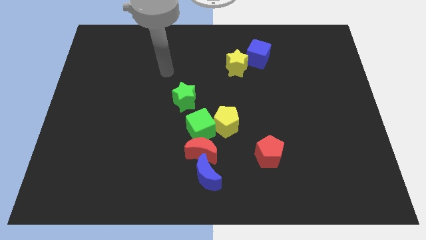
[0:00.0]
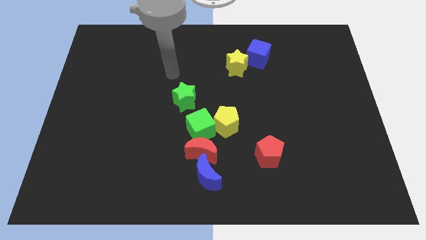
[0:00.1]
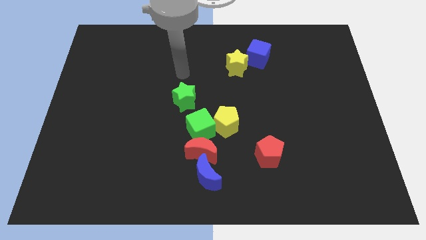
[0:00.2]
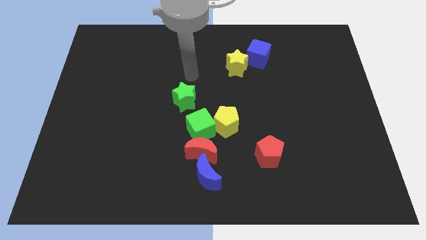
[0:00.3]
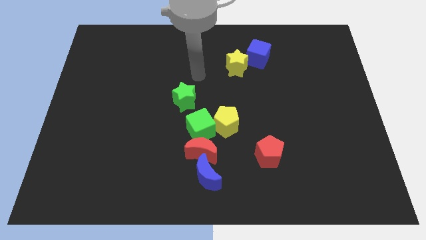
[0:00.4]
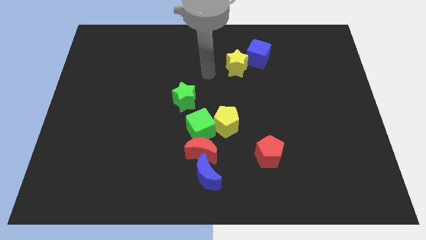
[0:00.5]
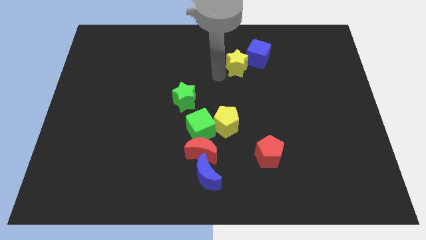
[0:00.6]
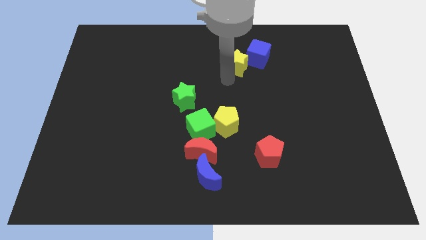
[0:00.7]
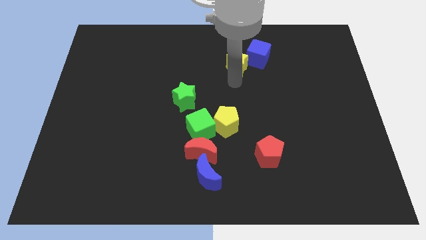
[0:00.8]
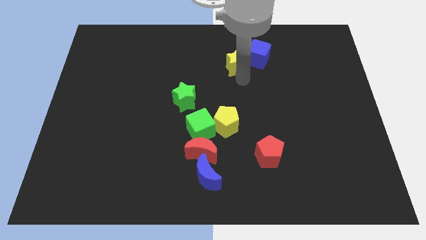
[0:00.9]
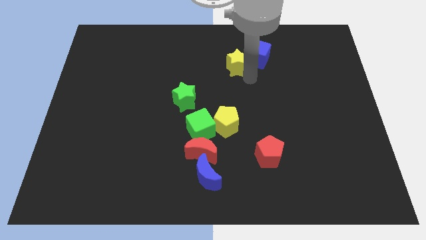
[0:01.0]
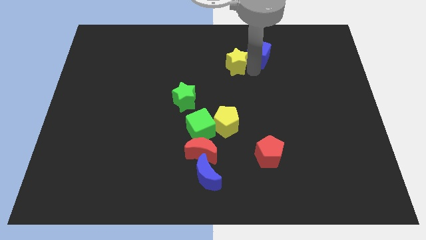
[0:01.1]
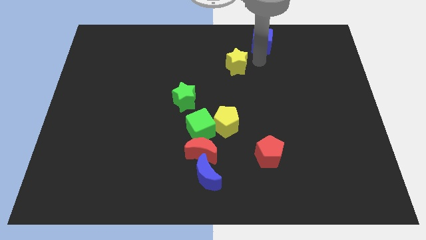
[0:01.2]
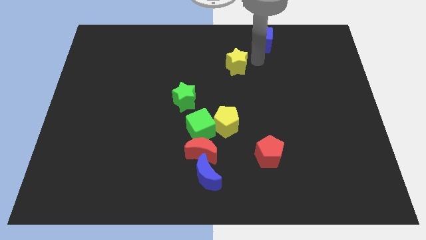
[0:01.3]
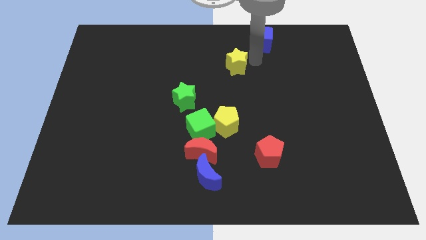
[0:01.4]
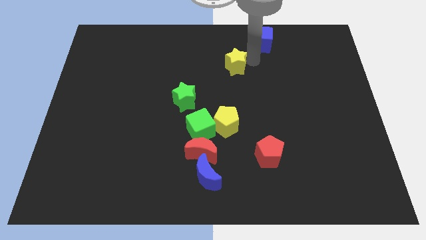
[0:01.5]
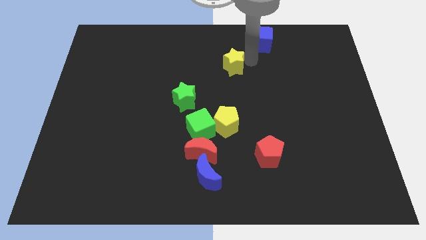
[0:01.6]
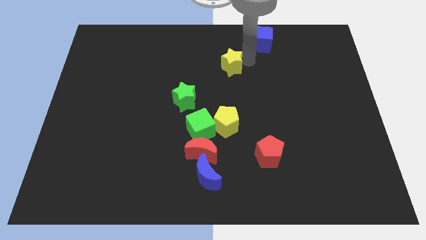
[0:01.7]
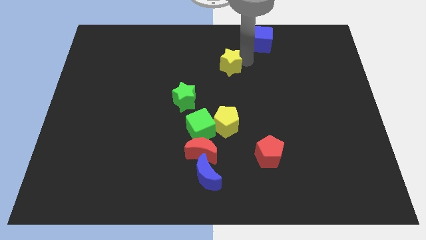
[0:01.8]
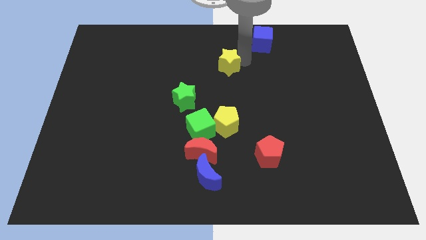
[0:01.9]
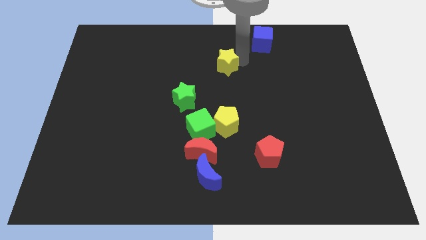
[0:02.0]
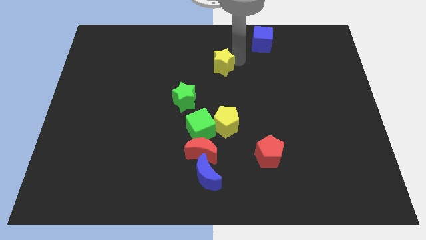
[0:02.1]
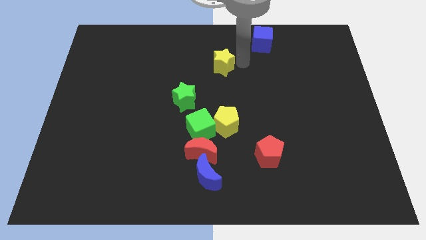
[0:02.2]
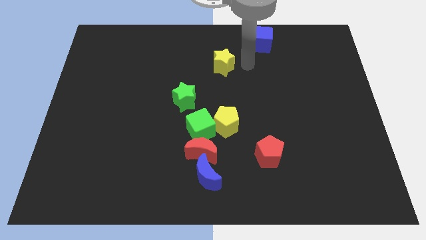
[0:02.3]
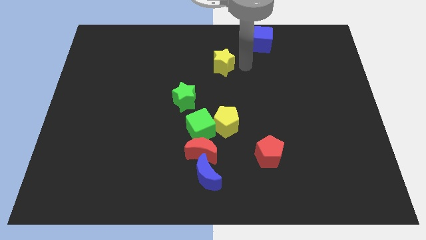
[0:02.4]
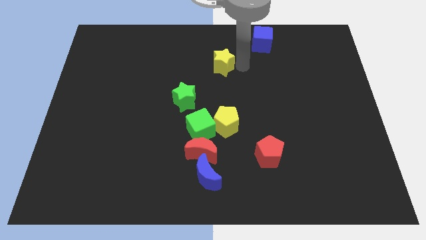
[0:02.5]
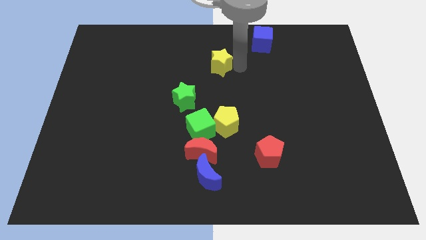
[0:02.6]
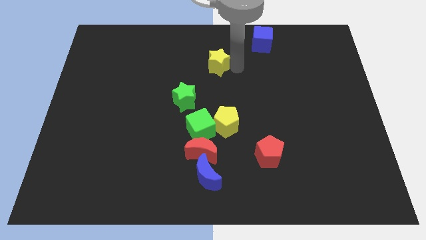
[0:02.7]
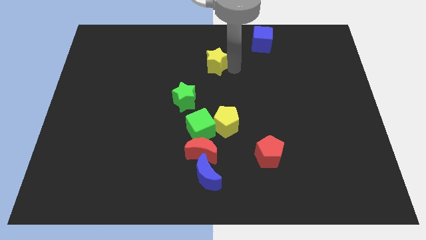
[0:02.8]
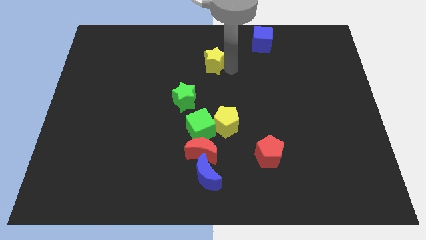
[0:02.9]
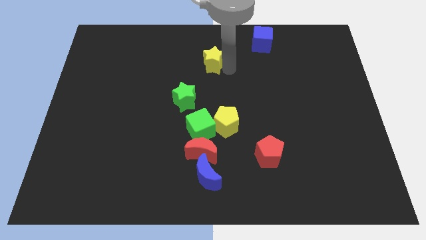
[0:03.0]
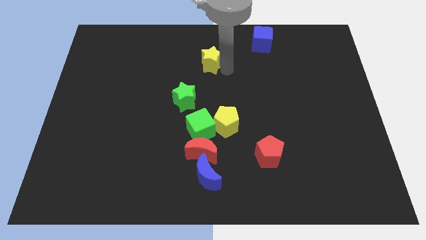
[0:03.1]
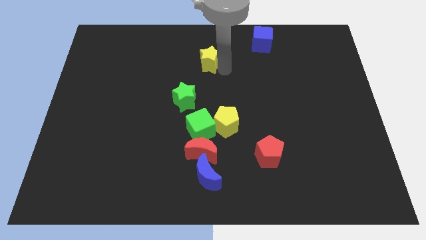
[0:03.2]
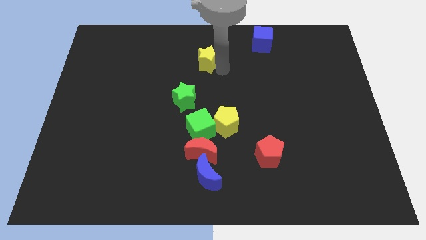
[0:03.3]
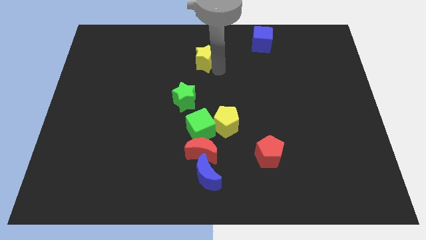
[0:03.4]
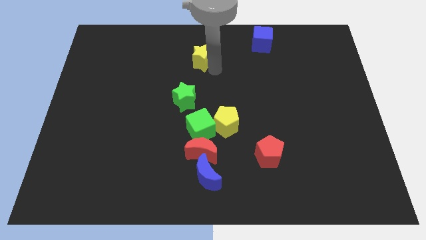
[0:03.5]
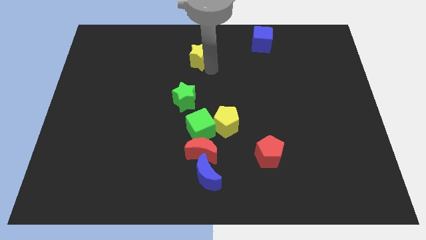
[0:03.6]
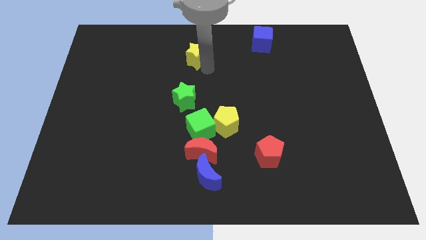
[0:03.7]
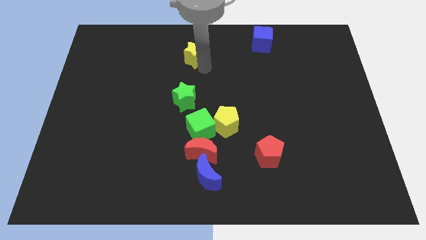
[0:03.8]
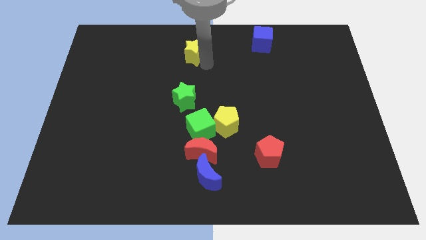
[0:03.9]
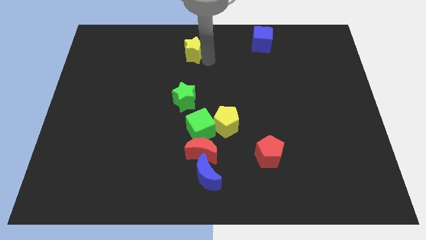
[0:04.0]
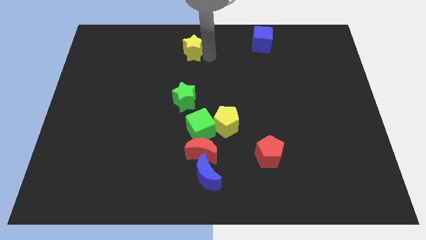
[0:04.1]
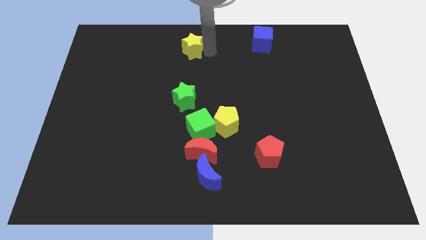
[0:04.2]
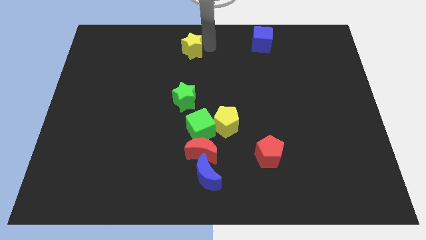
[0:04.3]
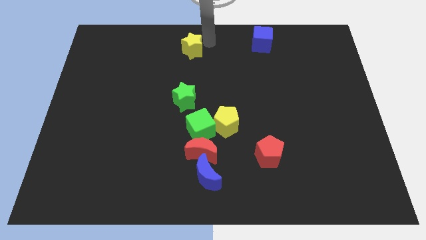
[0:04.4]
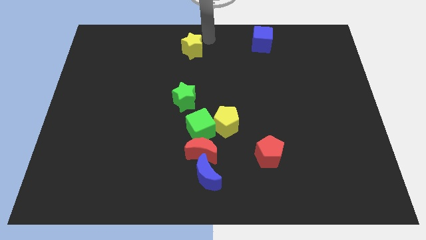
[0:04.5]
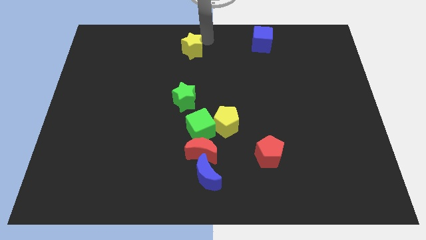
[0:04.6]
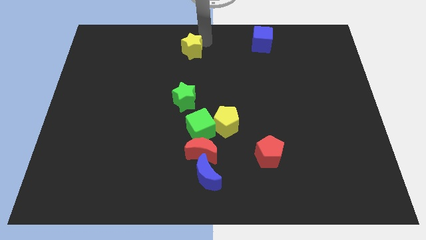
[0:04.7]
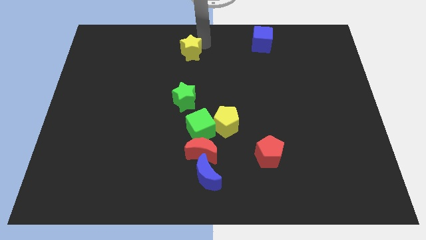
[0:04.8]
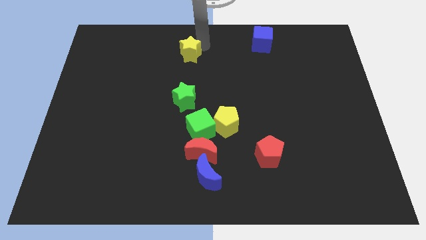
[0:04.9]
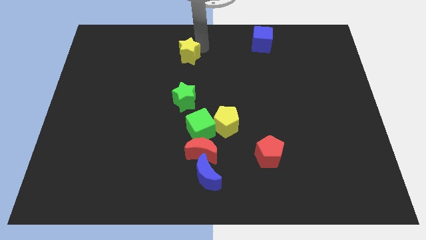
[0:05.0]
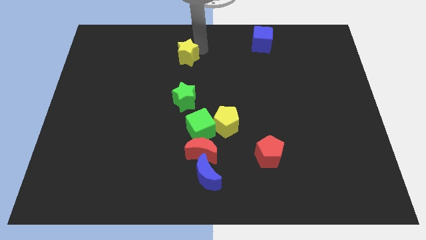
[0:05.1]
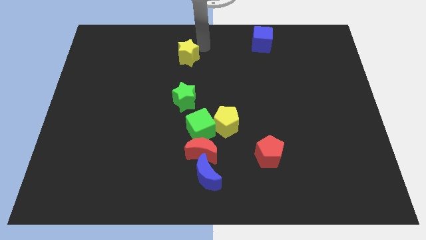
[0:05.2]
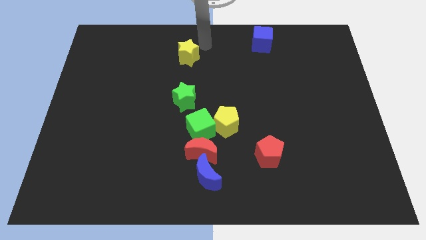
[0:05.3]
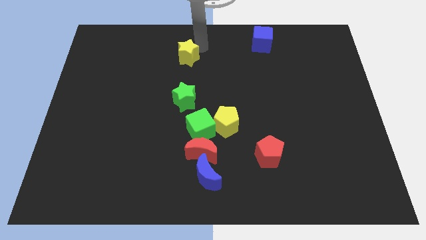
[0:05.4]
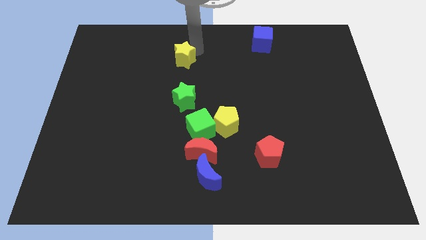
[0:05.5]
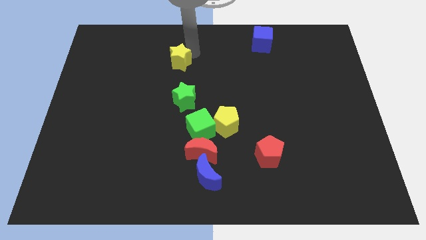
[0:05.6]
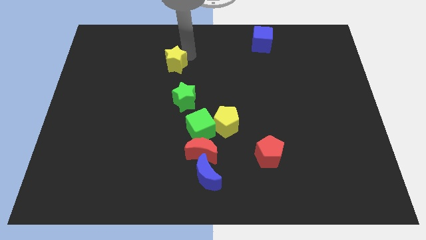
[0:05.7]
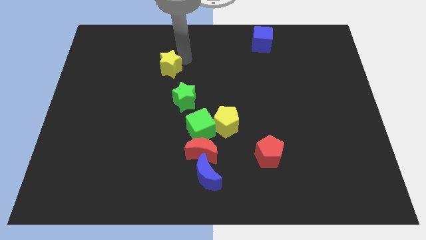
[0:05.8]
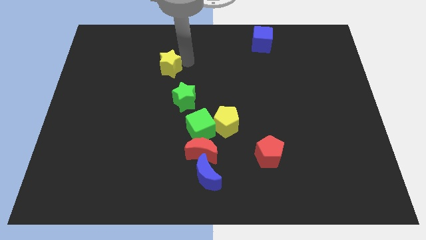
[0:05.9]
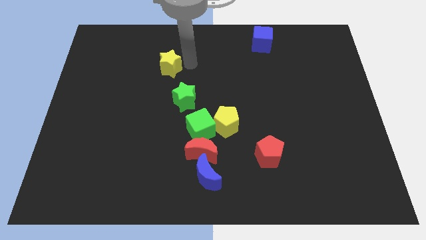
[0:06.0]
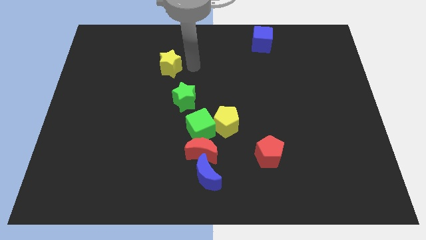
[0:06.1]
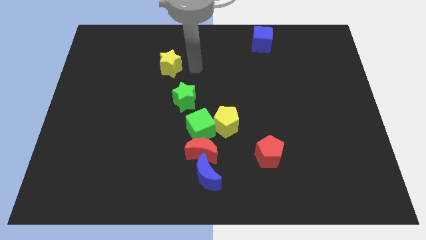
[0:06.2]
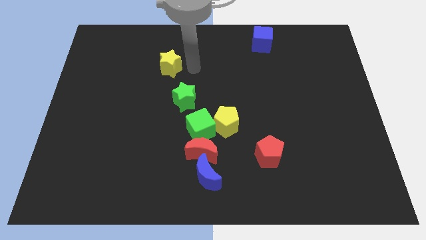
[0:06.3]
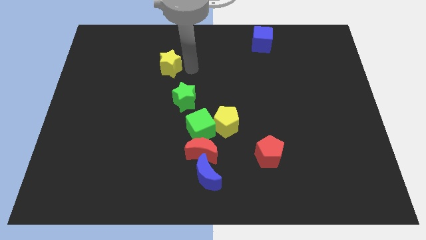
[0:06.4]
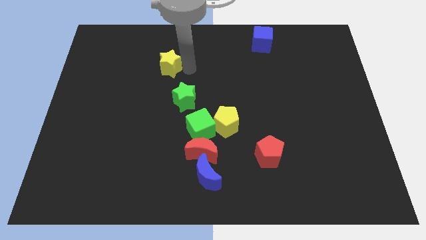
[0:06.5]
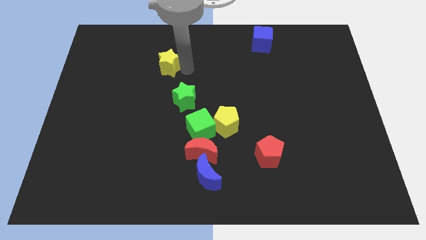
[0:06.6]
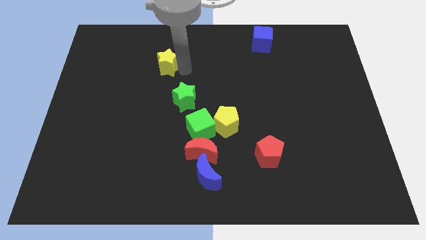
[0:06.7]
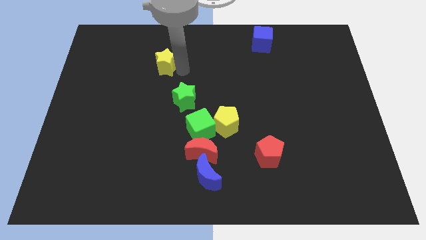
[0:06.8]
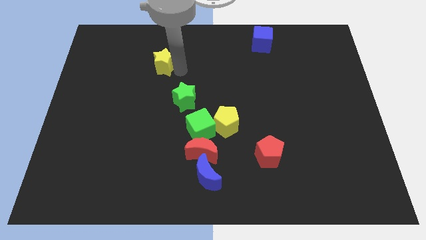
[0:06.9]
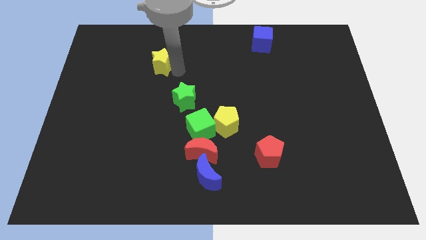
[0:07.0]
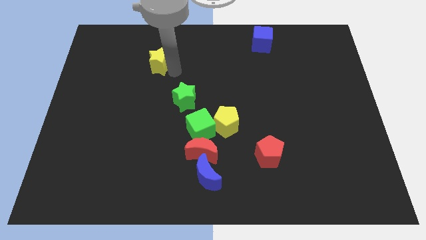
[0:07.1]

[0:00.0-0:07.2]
move the yellow star left

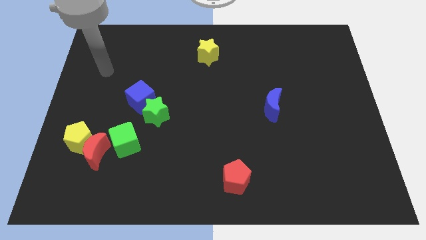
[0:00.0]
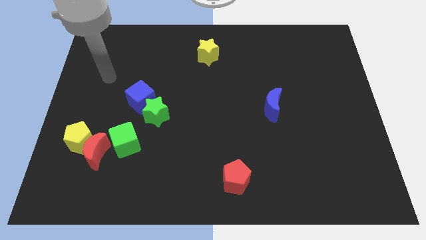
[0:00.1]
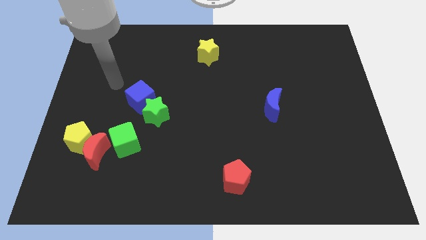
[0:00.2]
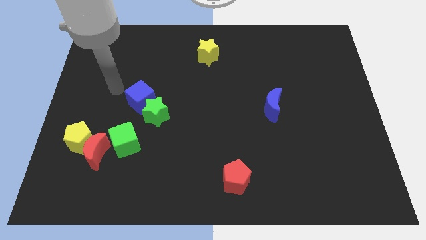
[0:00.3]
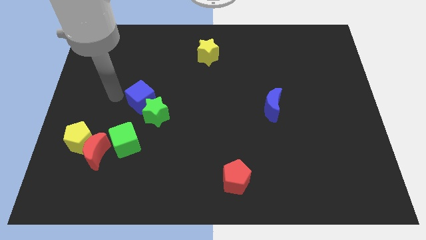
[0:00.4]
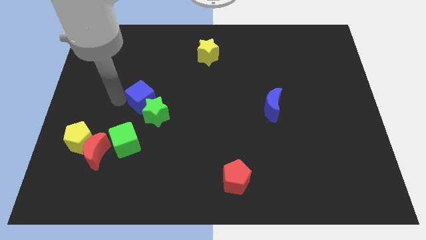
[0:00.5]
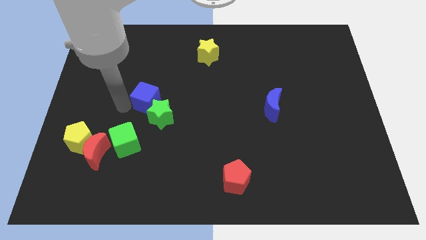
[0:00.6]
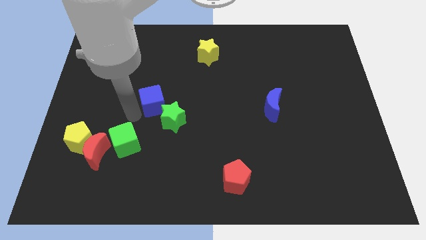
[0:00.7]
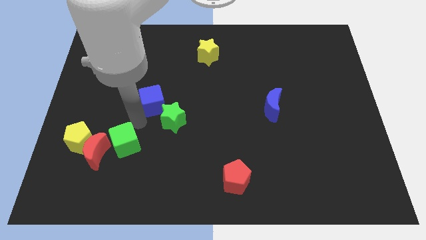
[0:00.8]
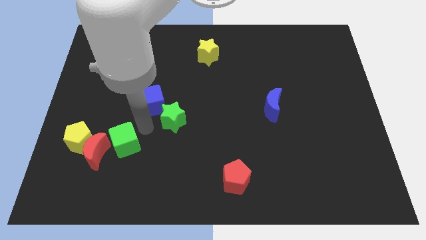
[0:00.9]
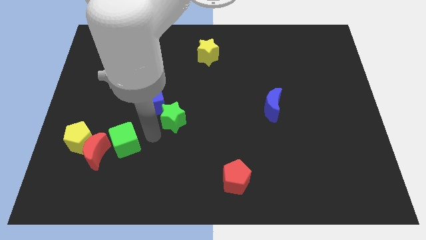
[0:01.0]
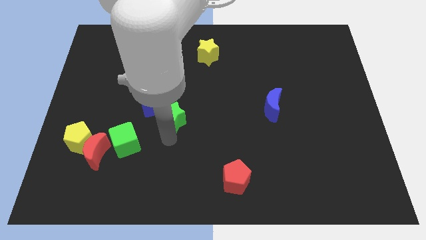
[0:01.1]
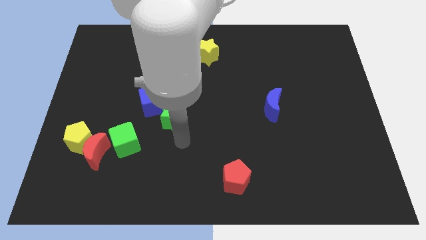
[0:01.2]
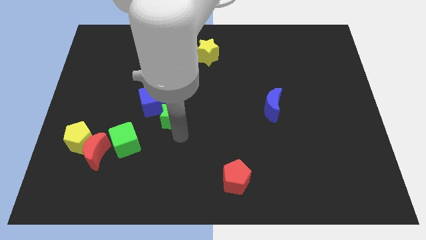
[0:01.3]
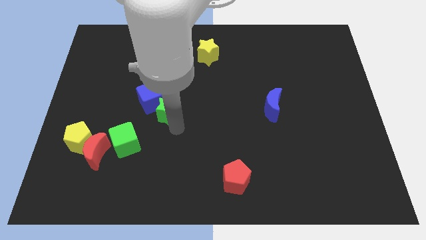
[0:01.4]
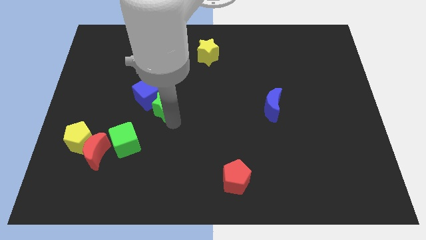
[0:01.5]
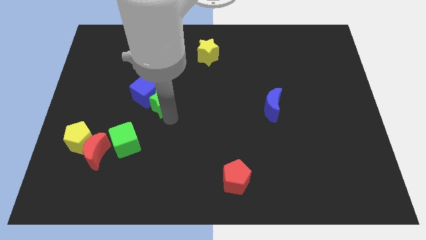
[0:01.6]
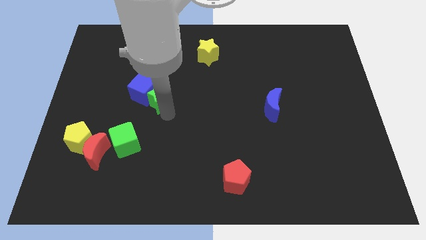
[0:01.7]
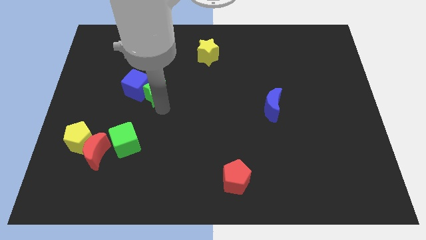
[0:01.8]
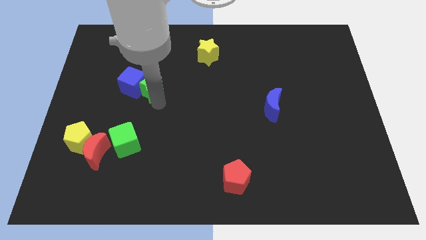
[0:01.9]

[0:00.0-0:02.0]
slide the green star up somewhat
